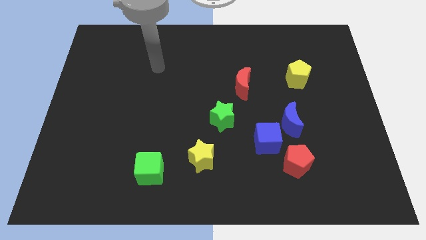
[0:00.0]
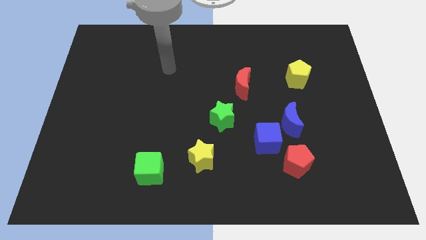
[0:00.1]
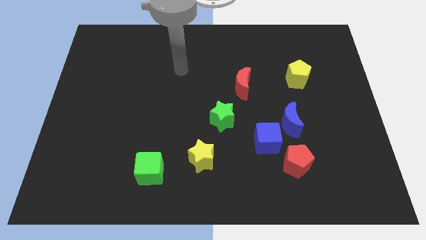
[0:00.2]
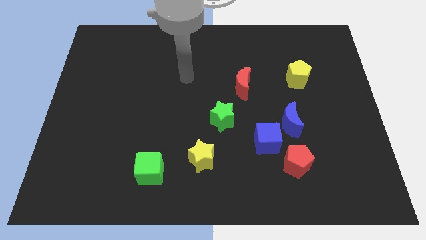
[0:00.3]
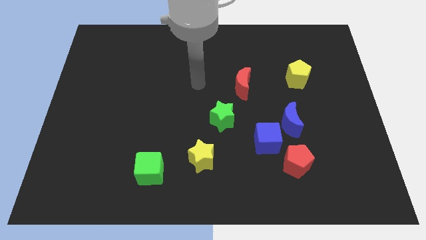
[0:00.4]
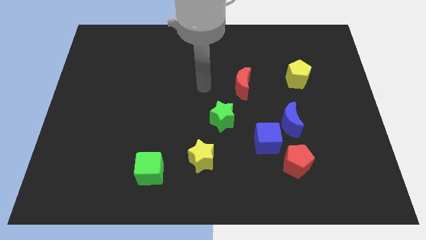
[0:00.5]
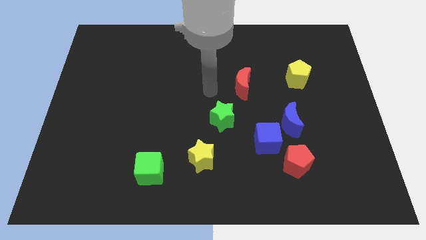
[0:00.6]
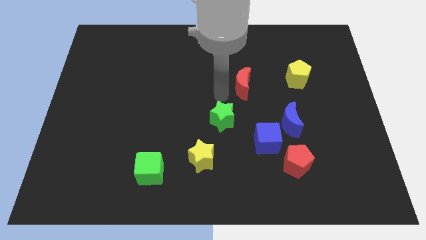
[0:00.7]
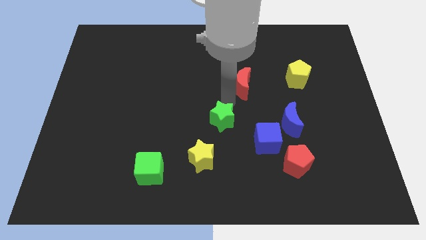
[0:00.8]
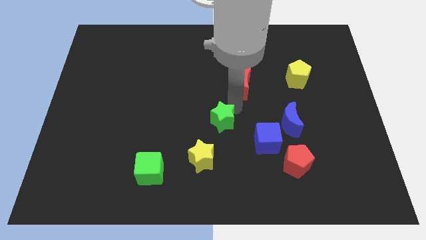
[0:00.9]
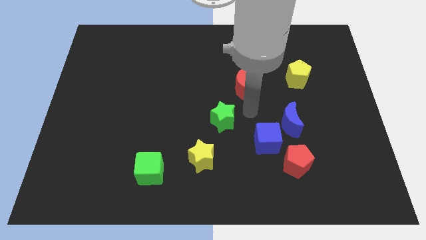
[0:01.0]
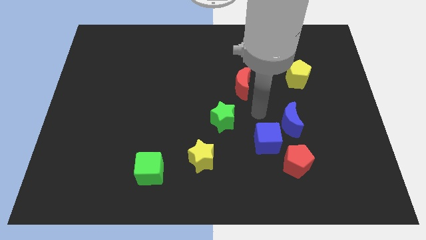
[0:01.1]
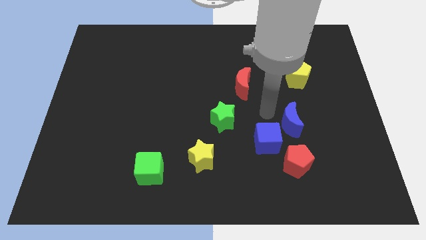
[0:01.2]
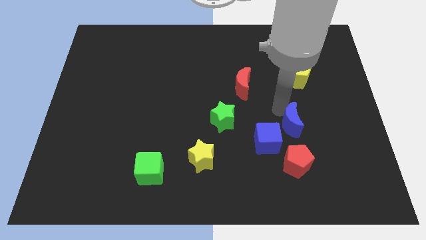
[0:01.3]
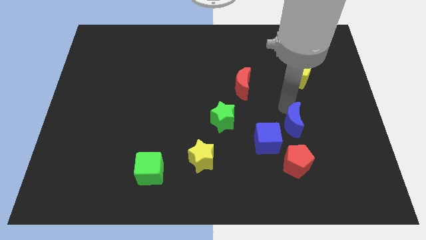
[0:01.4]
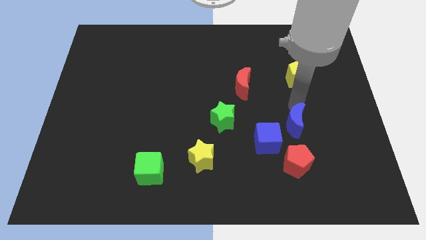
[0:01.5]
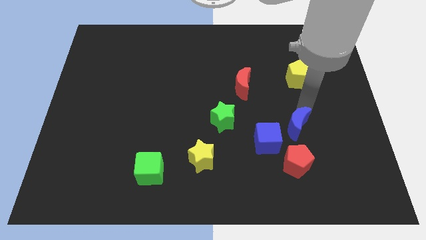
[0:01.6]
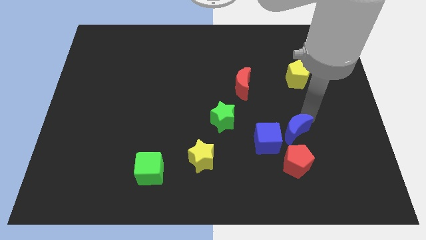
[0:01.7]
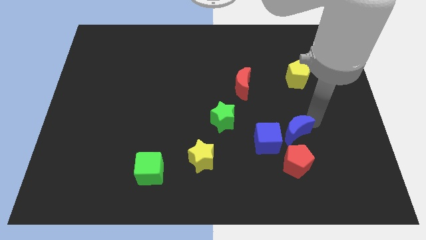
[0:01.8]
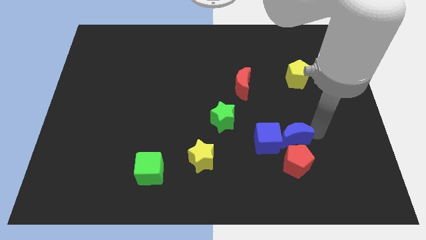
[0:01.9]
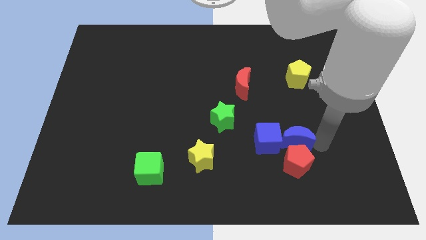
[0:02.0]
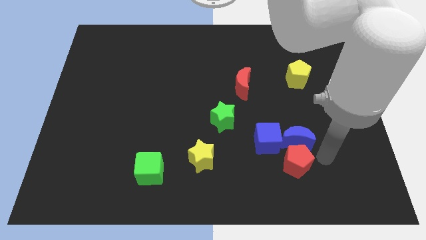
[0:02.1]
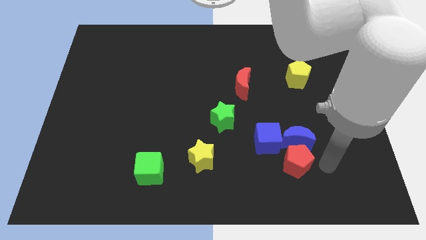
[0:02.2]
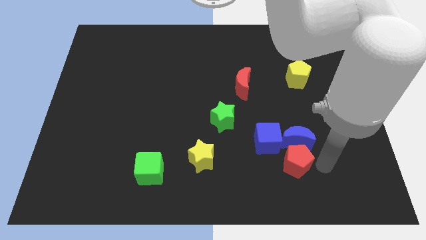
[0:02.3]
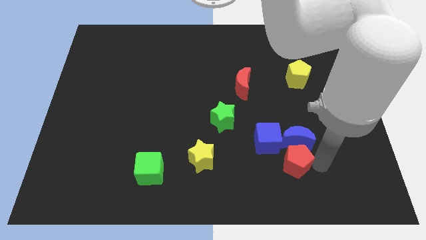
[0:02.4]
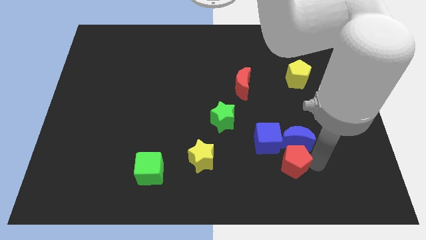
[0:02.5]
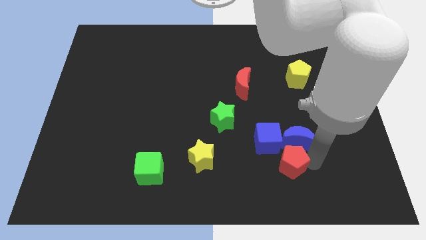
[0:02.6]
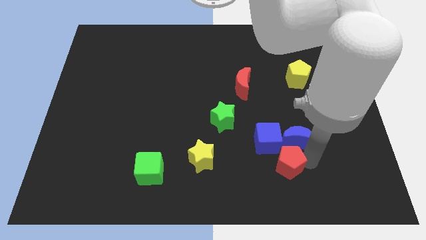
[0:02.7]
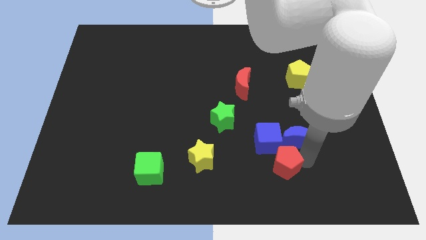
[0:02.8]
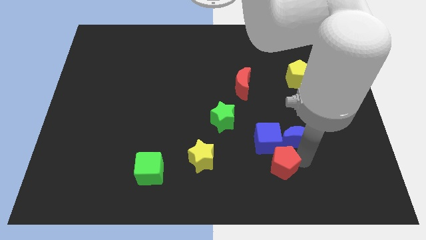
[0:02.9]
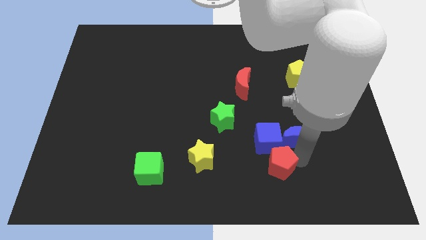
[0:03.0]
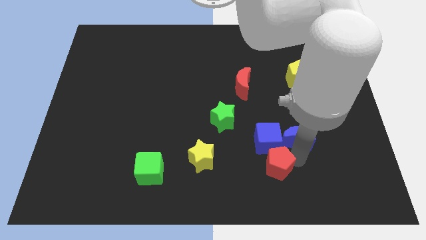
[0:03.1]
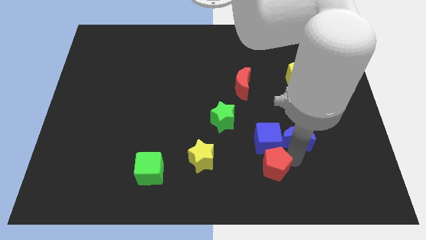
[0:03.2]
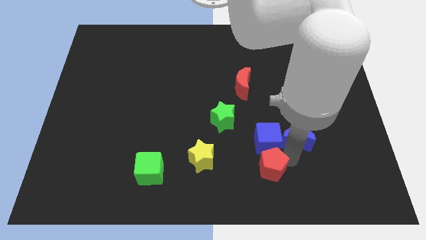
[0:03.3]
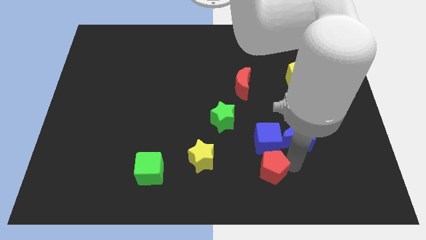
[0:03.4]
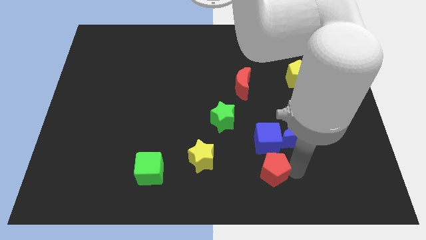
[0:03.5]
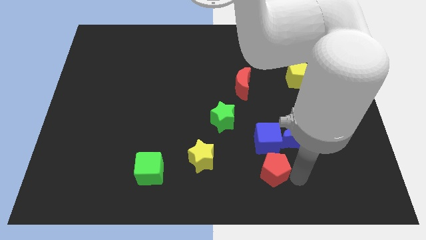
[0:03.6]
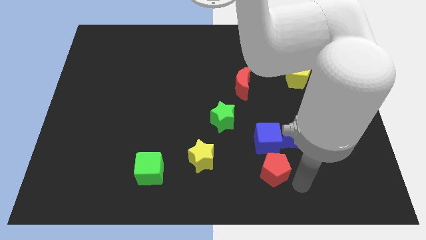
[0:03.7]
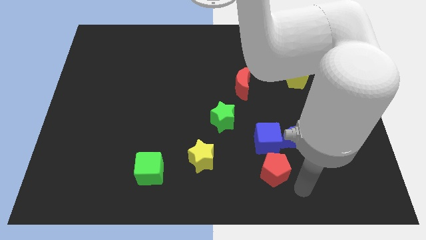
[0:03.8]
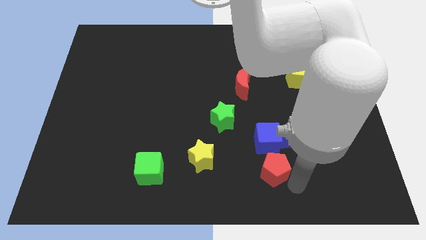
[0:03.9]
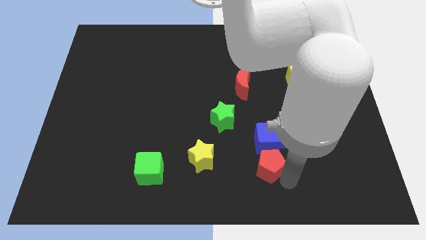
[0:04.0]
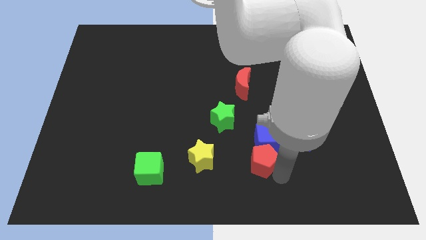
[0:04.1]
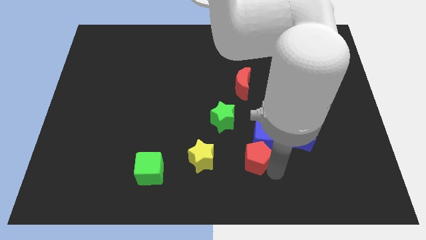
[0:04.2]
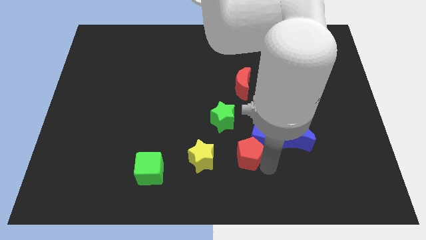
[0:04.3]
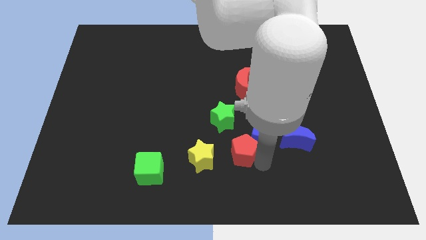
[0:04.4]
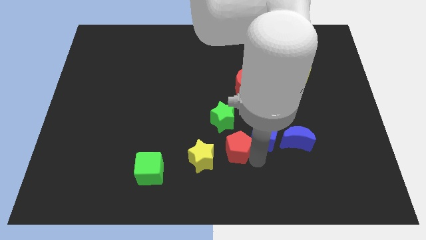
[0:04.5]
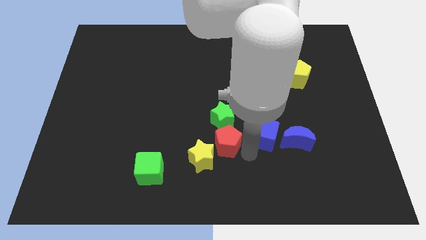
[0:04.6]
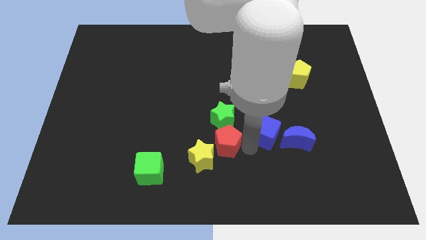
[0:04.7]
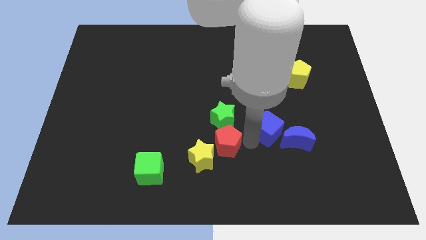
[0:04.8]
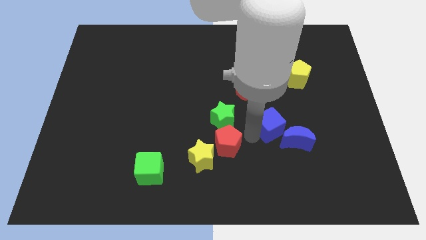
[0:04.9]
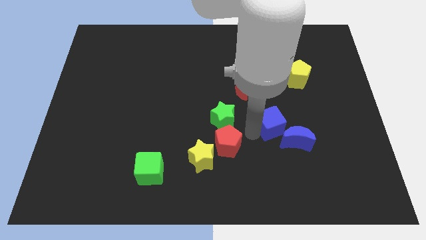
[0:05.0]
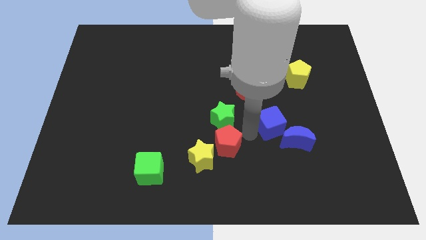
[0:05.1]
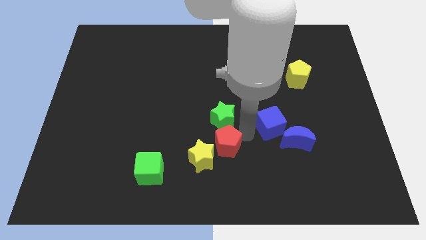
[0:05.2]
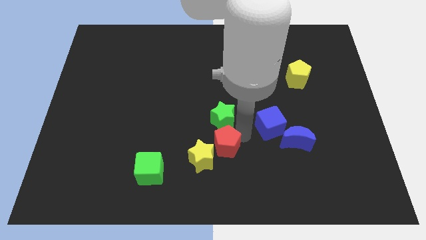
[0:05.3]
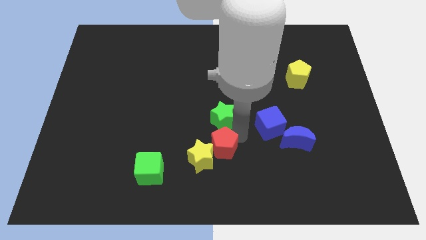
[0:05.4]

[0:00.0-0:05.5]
slide the red pentagon close to the yellow star

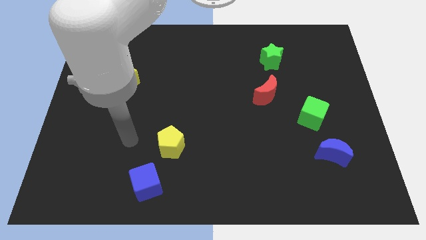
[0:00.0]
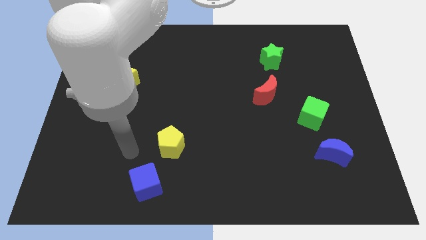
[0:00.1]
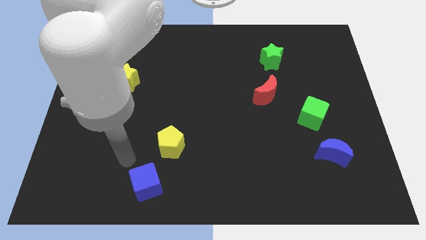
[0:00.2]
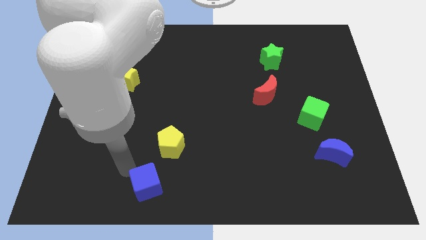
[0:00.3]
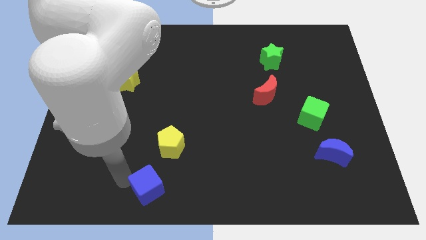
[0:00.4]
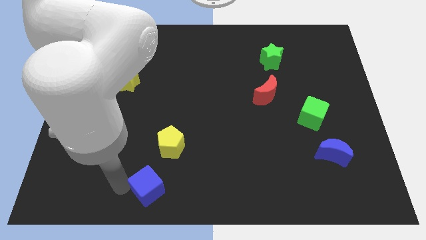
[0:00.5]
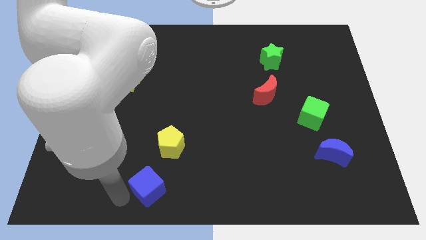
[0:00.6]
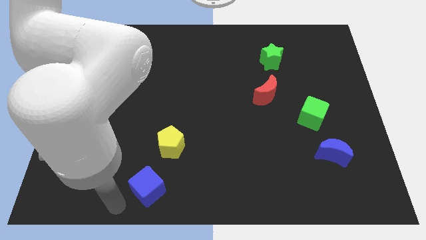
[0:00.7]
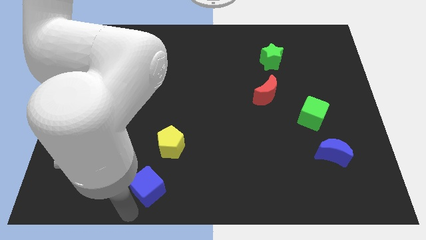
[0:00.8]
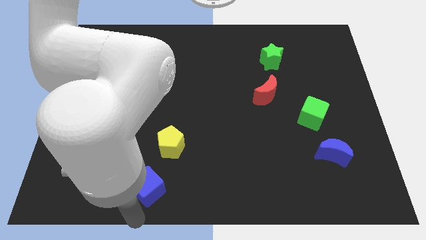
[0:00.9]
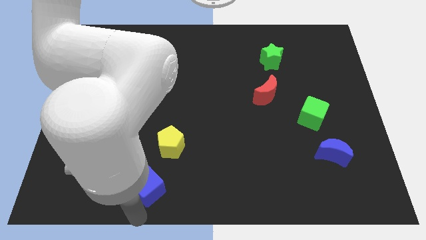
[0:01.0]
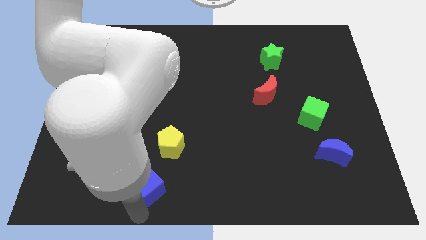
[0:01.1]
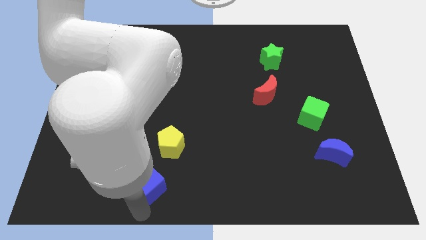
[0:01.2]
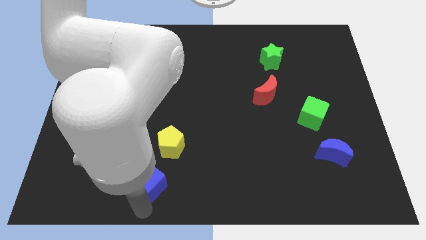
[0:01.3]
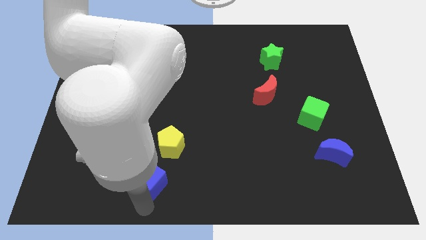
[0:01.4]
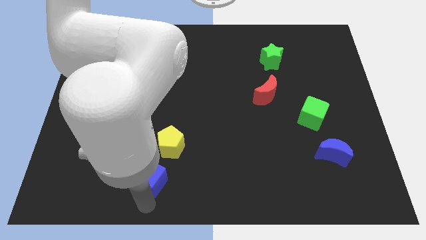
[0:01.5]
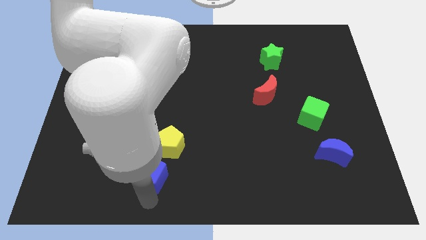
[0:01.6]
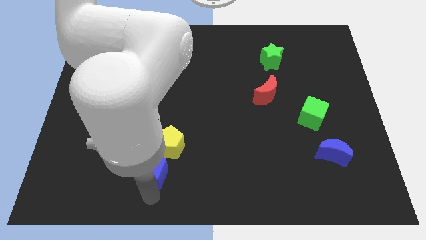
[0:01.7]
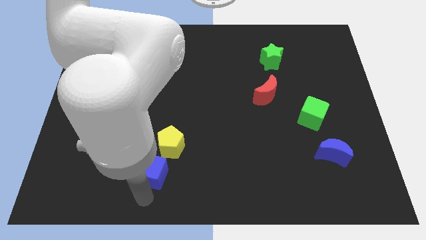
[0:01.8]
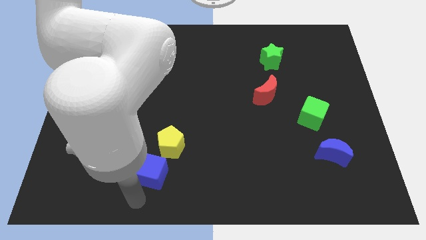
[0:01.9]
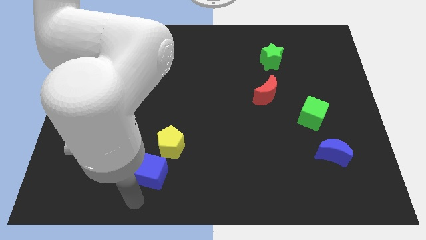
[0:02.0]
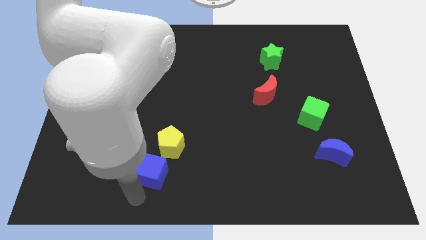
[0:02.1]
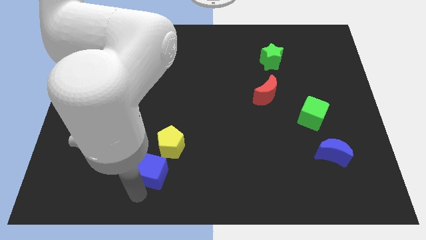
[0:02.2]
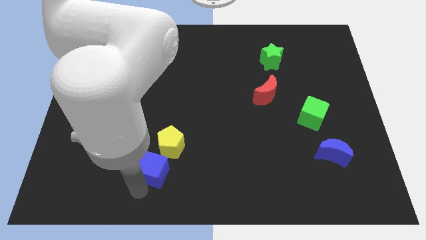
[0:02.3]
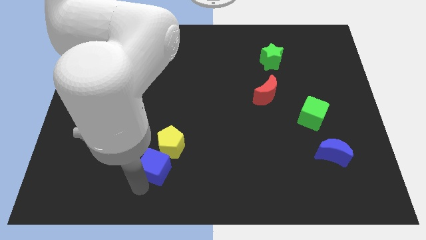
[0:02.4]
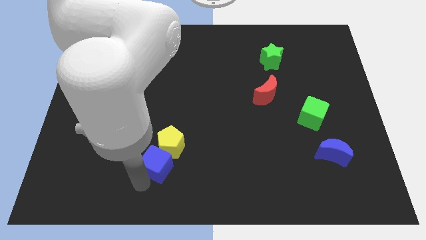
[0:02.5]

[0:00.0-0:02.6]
move the blue cube close to the yellow pentagon
